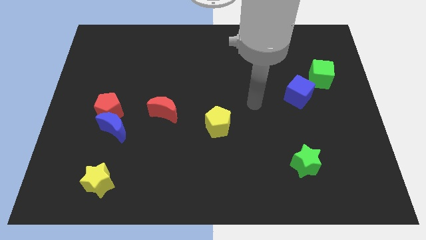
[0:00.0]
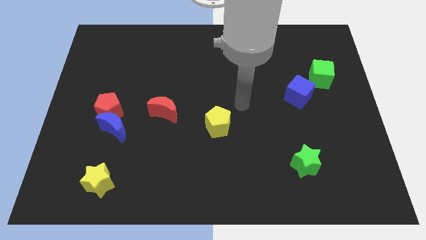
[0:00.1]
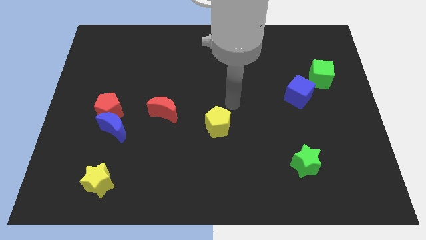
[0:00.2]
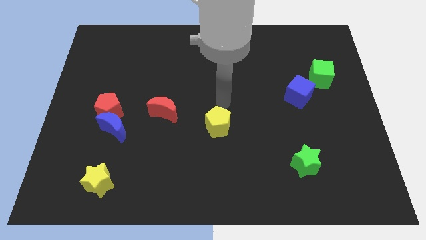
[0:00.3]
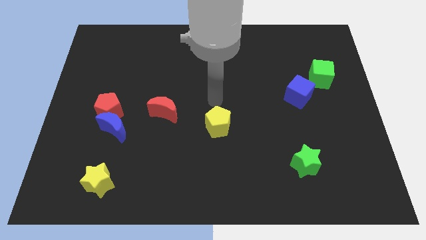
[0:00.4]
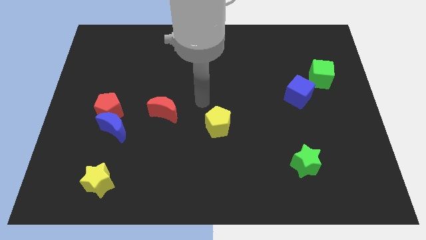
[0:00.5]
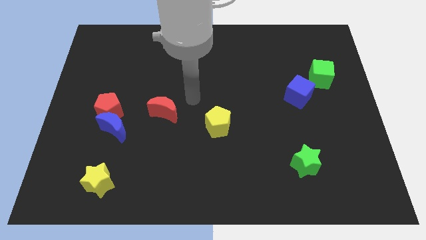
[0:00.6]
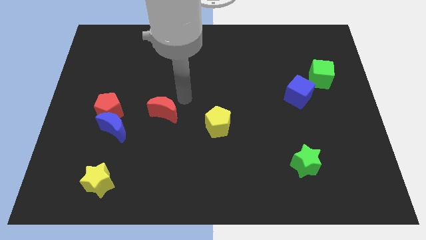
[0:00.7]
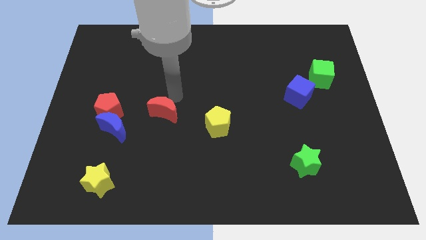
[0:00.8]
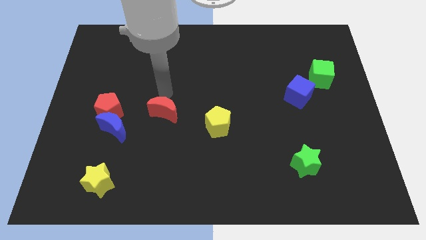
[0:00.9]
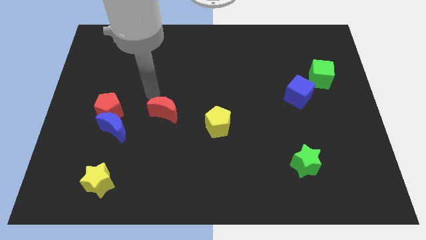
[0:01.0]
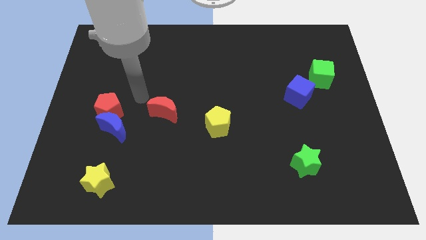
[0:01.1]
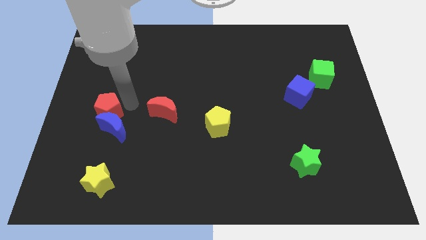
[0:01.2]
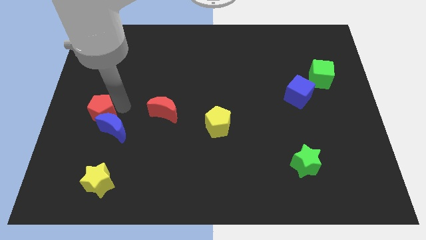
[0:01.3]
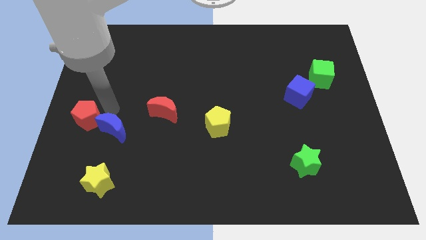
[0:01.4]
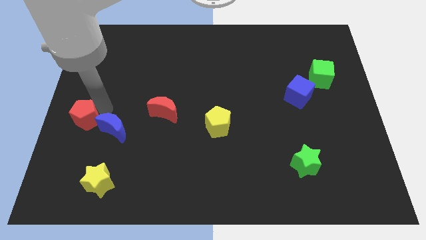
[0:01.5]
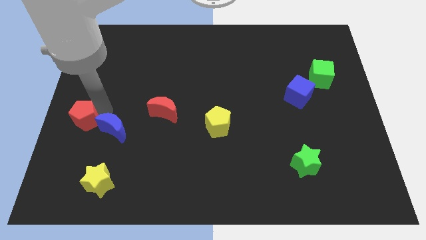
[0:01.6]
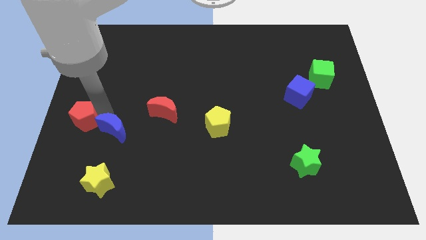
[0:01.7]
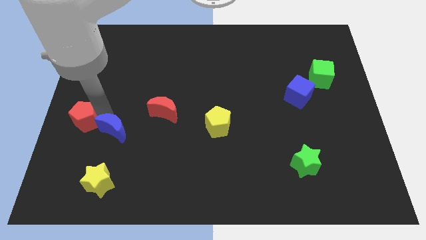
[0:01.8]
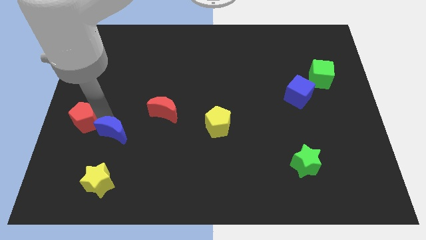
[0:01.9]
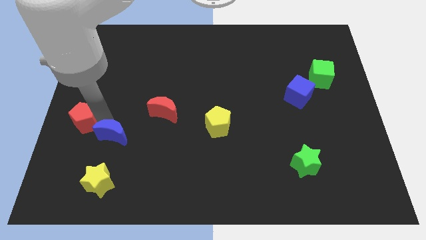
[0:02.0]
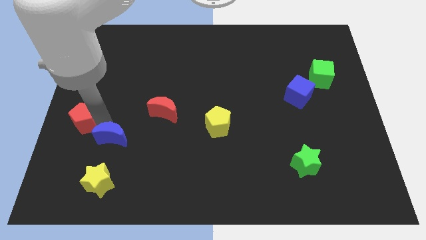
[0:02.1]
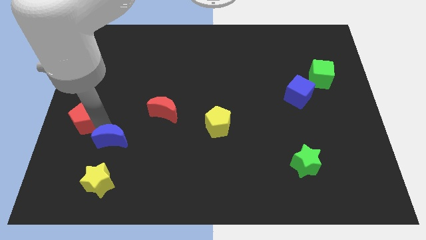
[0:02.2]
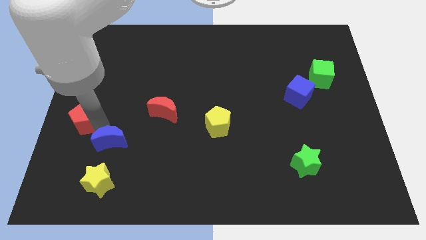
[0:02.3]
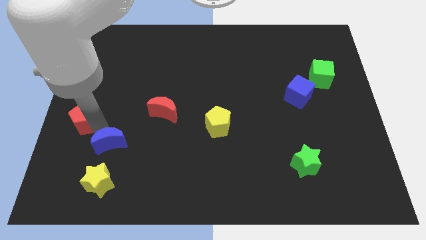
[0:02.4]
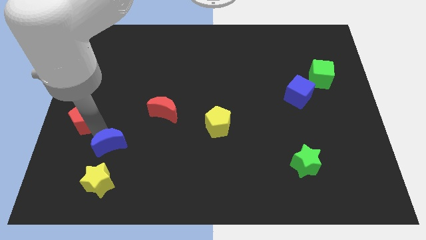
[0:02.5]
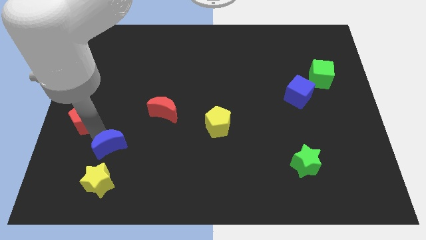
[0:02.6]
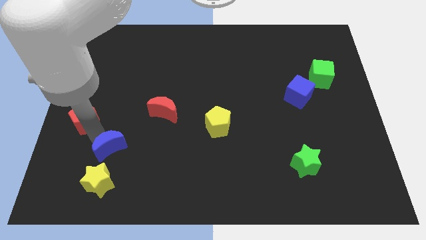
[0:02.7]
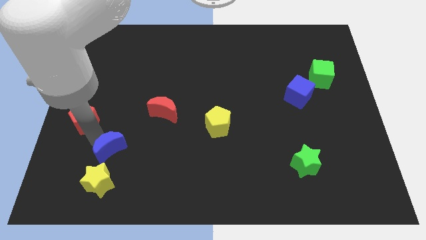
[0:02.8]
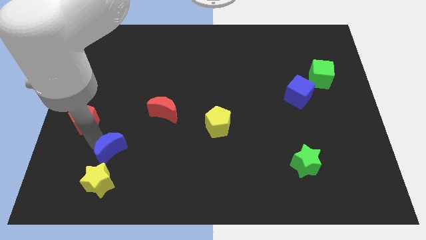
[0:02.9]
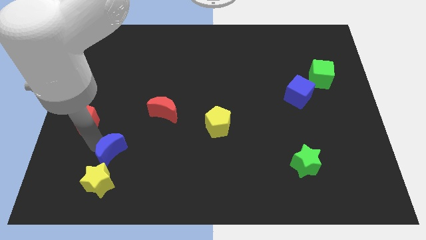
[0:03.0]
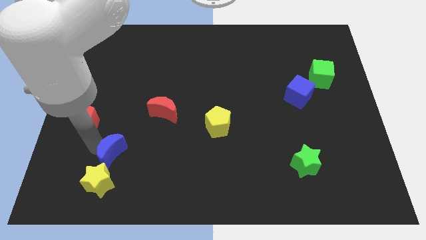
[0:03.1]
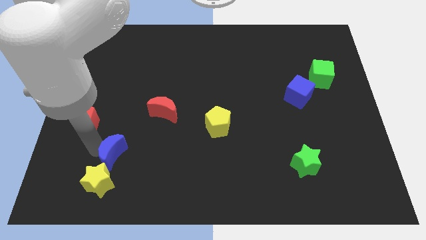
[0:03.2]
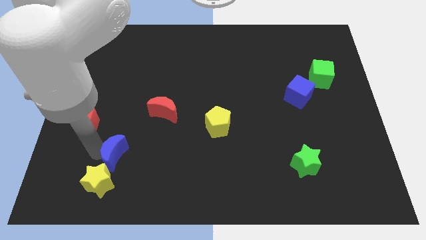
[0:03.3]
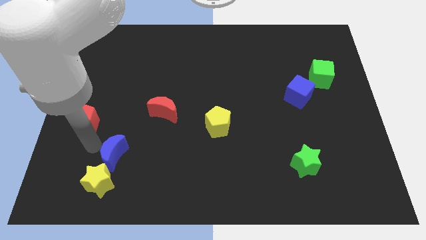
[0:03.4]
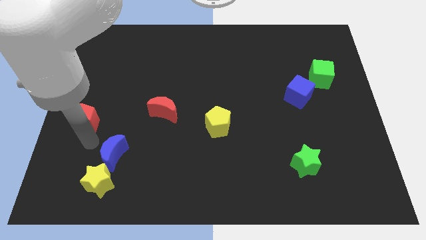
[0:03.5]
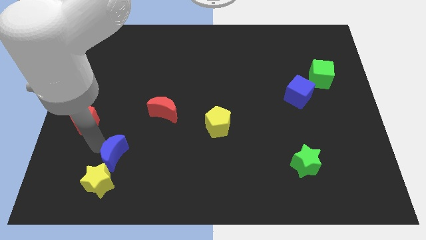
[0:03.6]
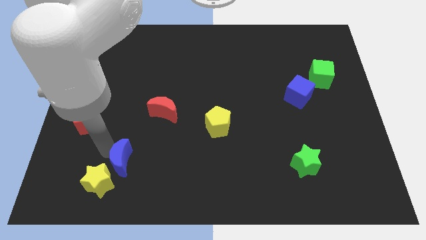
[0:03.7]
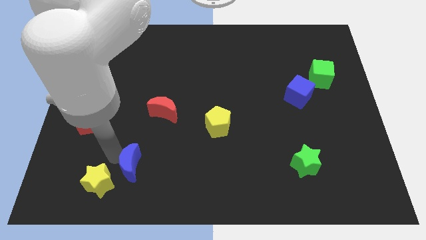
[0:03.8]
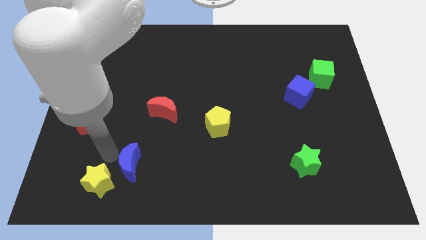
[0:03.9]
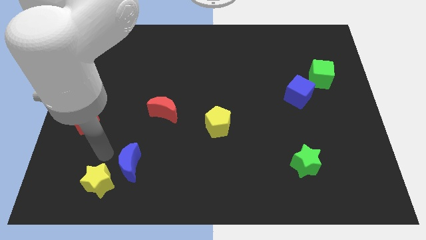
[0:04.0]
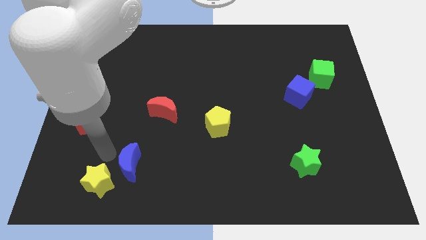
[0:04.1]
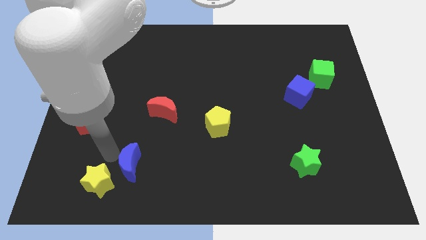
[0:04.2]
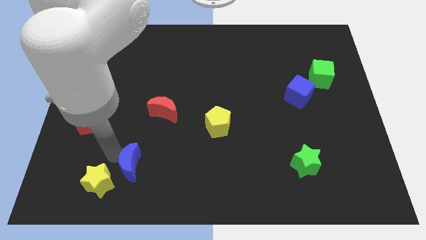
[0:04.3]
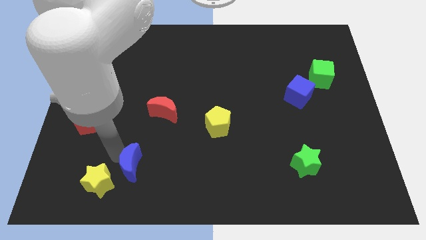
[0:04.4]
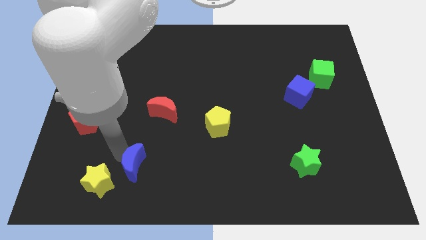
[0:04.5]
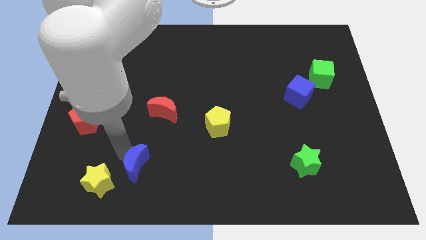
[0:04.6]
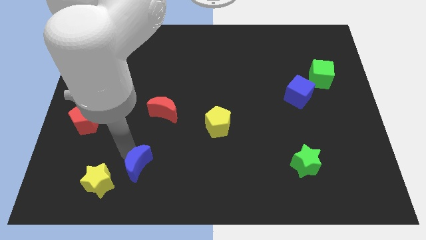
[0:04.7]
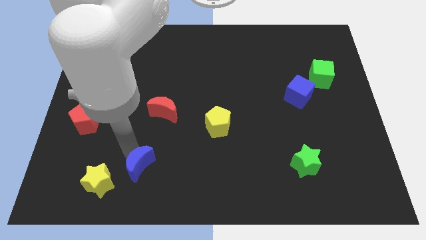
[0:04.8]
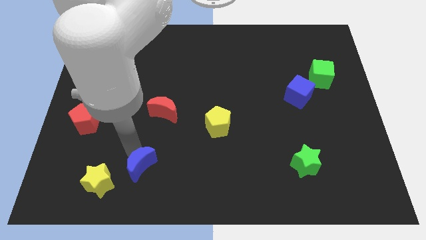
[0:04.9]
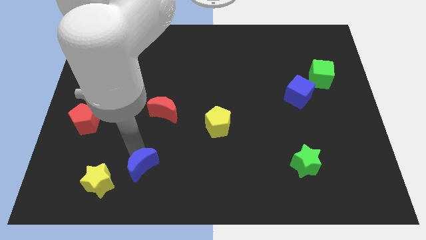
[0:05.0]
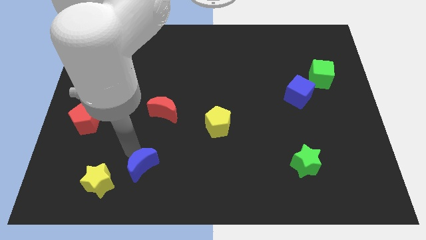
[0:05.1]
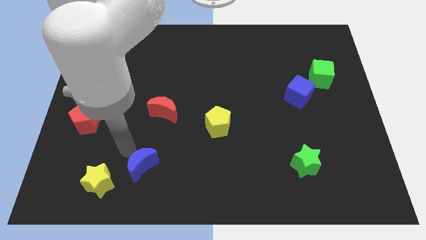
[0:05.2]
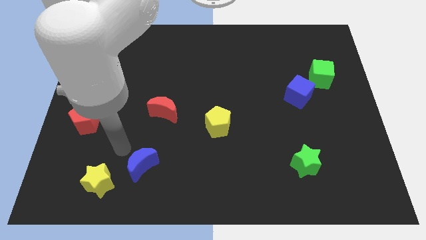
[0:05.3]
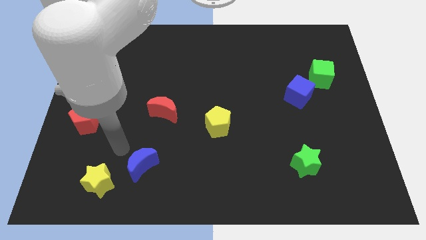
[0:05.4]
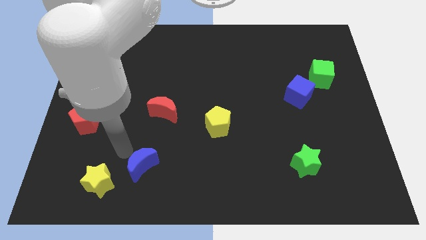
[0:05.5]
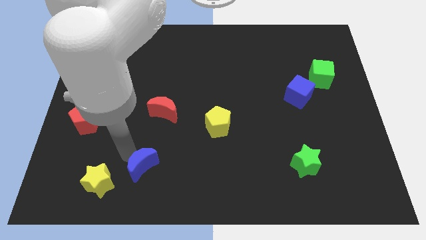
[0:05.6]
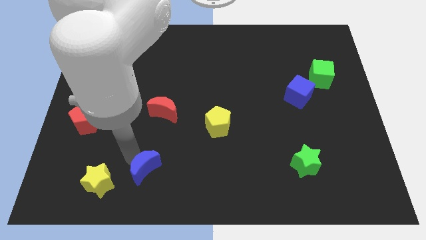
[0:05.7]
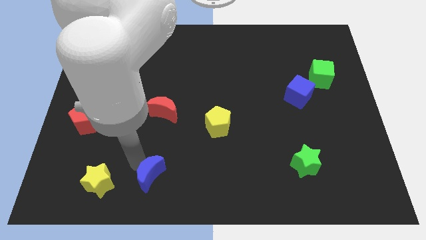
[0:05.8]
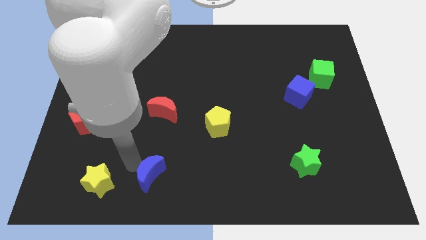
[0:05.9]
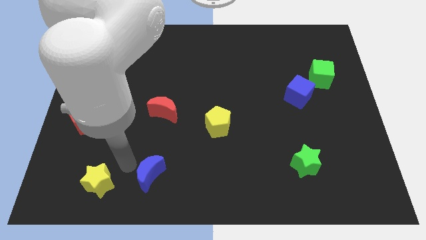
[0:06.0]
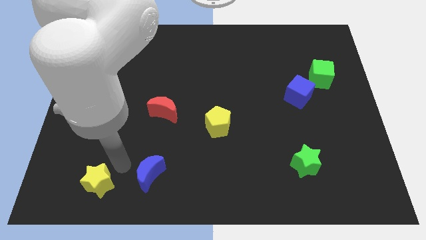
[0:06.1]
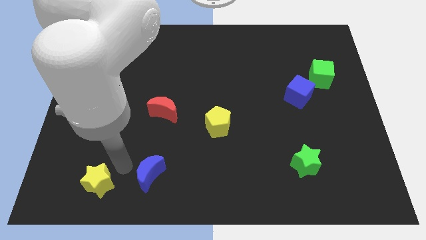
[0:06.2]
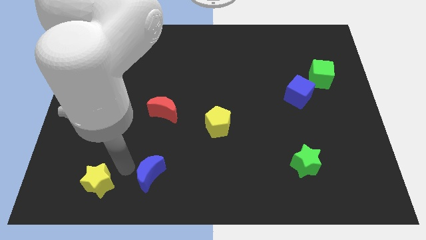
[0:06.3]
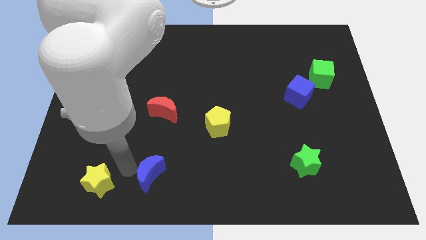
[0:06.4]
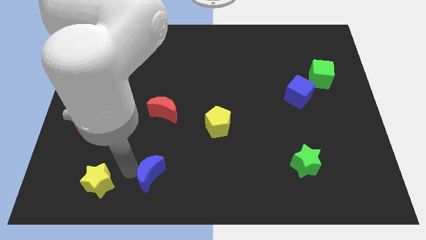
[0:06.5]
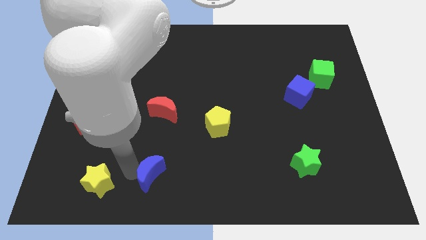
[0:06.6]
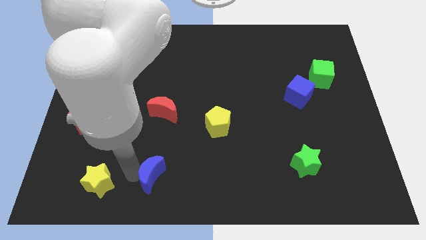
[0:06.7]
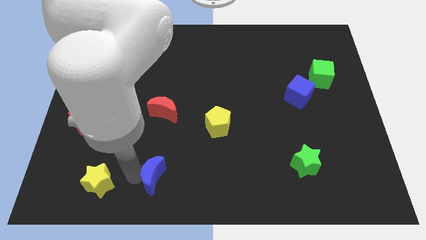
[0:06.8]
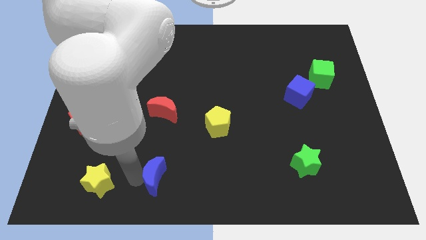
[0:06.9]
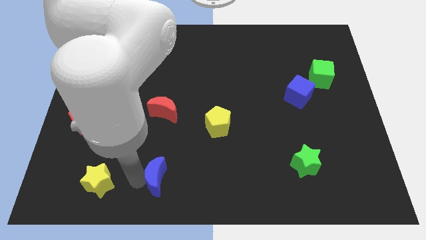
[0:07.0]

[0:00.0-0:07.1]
put the blue moon to the bottom side
